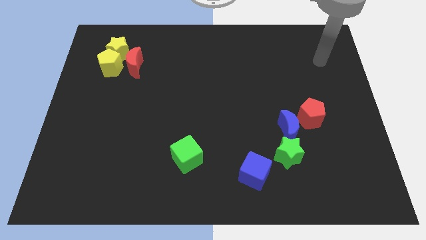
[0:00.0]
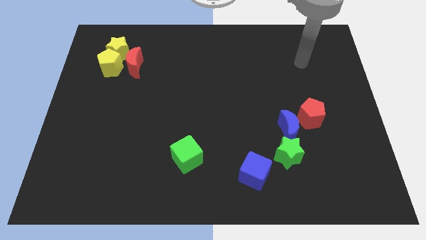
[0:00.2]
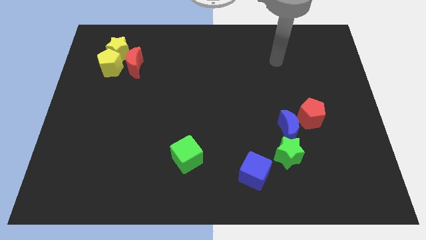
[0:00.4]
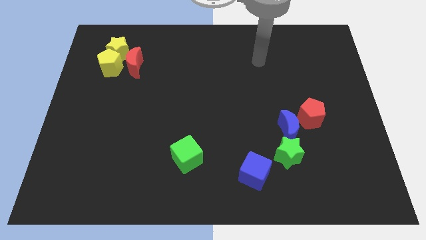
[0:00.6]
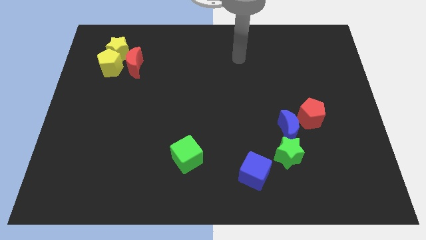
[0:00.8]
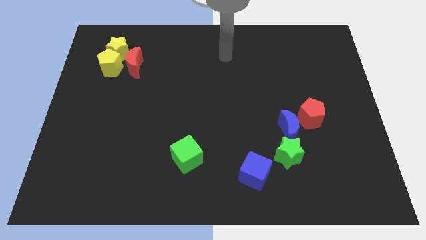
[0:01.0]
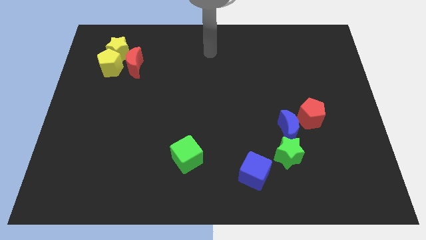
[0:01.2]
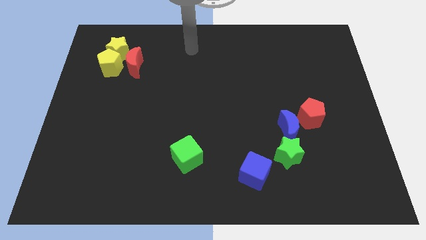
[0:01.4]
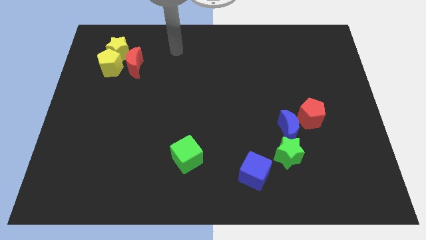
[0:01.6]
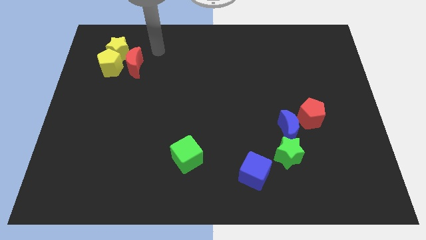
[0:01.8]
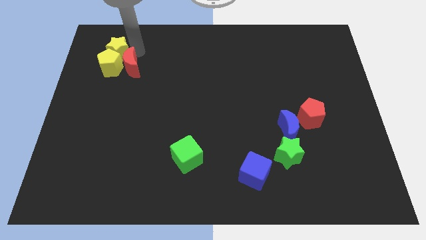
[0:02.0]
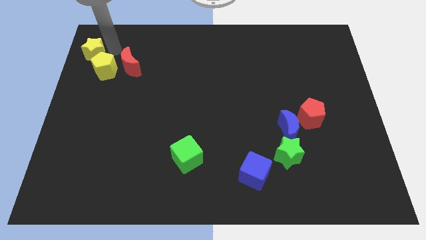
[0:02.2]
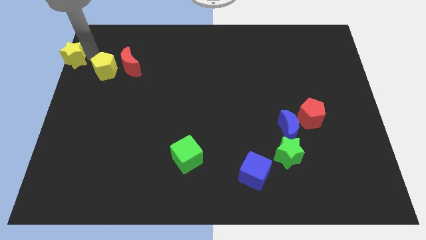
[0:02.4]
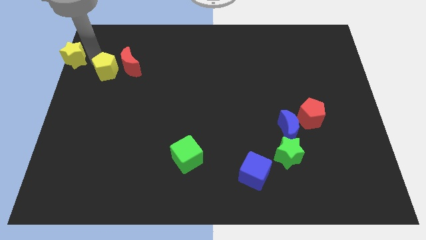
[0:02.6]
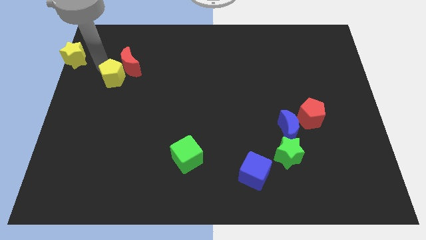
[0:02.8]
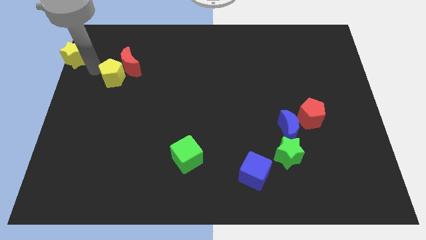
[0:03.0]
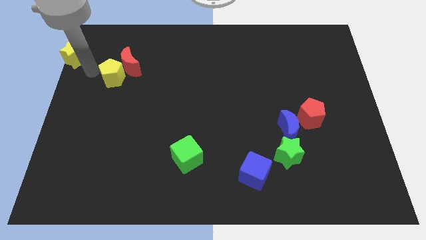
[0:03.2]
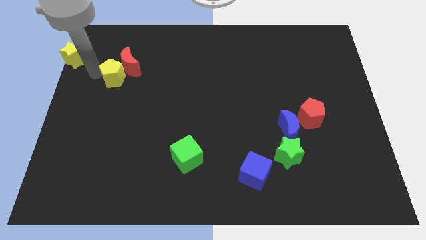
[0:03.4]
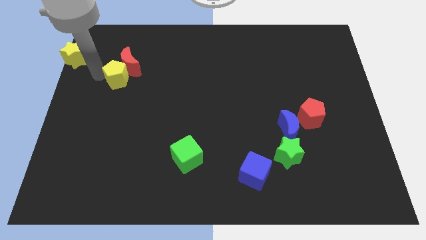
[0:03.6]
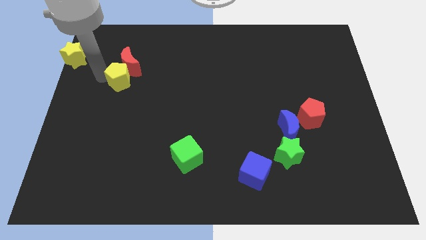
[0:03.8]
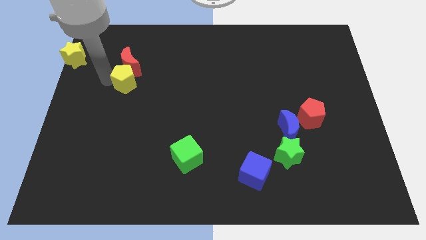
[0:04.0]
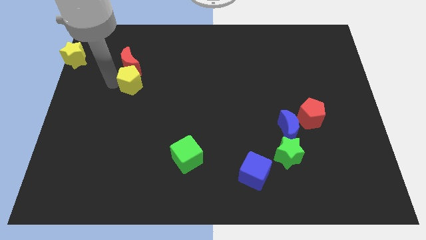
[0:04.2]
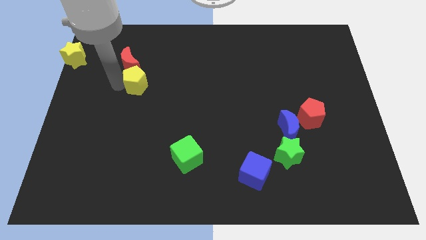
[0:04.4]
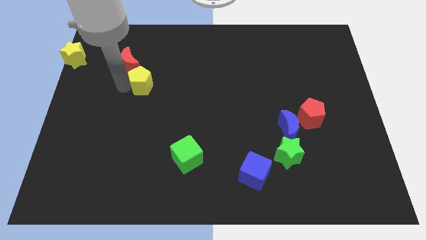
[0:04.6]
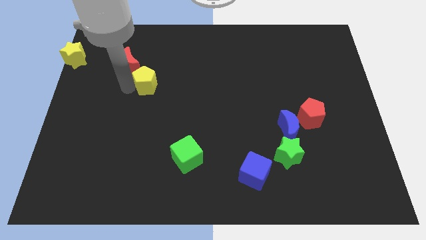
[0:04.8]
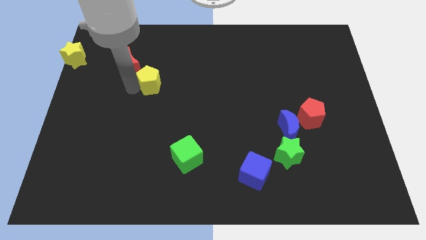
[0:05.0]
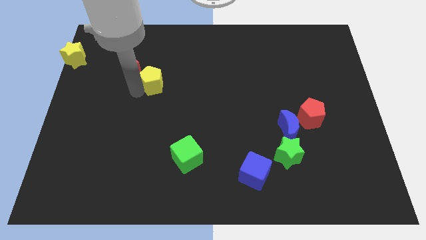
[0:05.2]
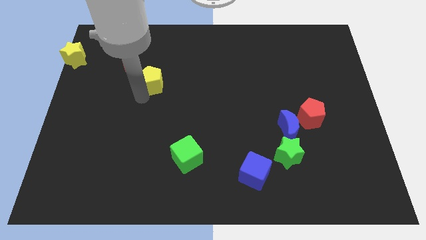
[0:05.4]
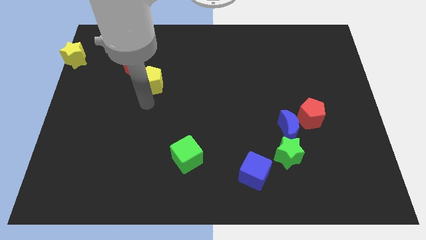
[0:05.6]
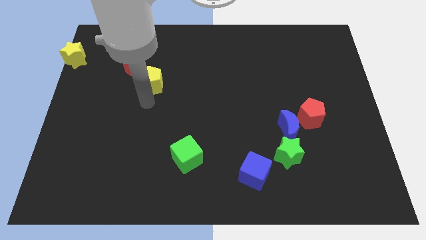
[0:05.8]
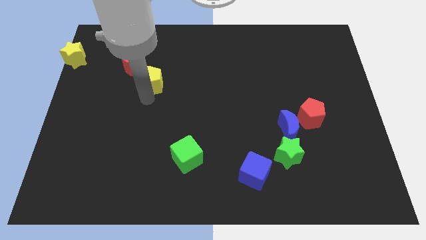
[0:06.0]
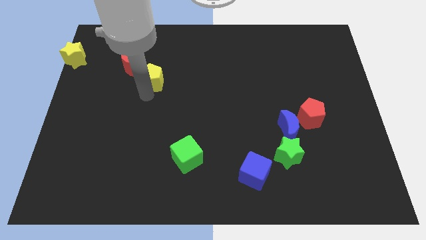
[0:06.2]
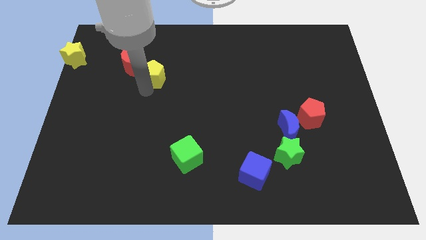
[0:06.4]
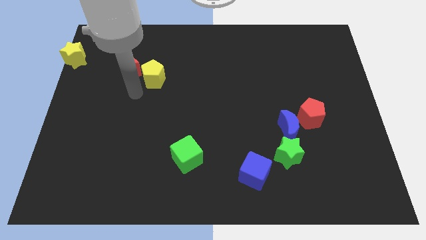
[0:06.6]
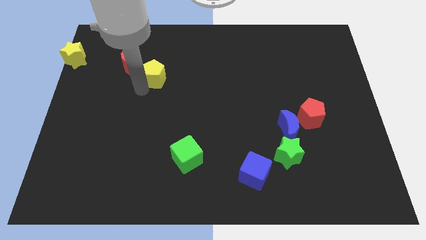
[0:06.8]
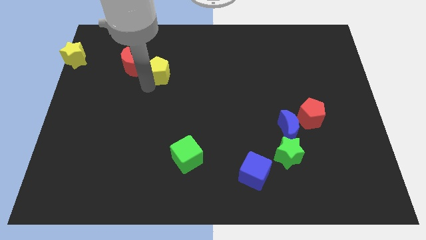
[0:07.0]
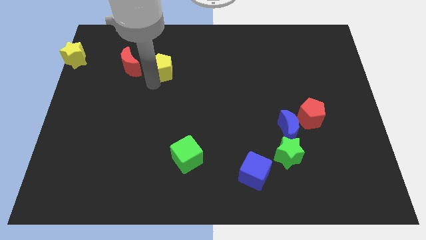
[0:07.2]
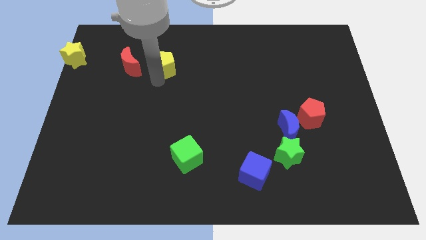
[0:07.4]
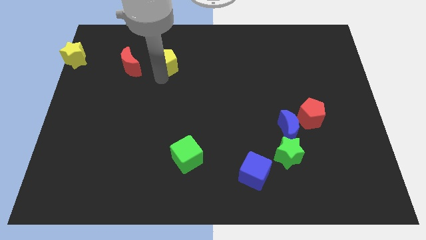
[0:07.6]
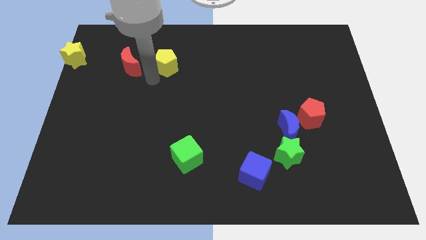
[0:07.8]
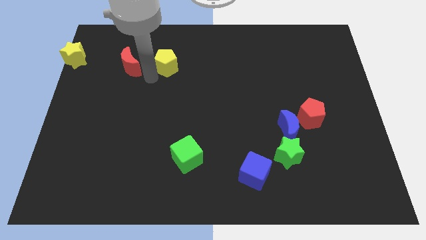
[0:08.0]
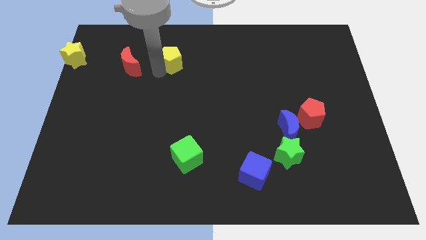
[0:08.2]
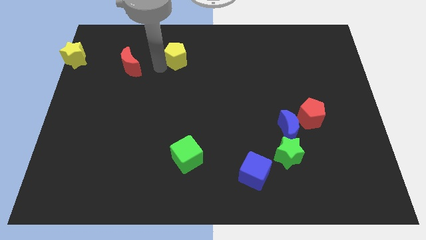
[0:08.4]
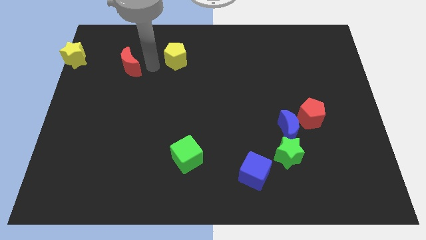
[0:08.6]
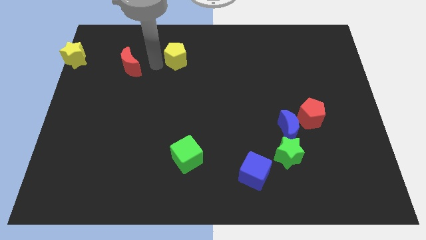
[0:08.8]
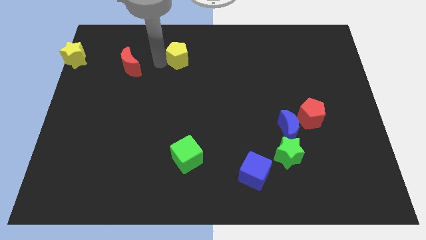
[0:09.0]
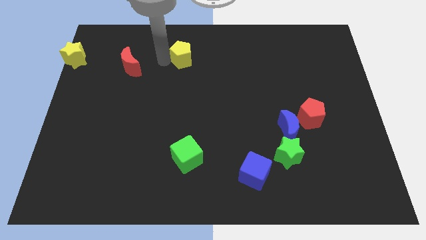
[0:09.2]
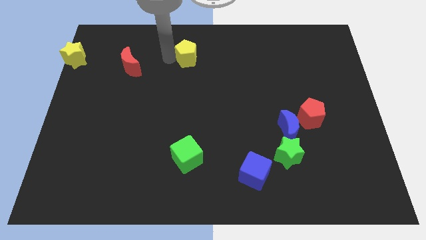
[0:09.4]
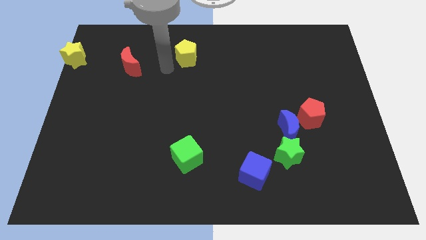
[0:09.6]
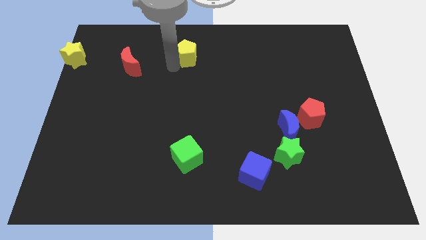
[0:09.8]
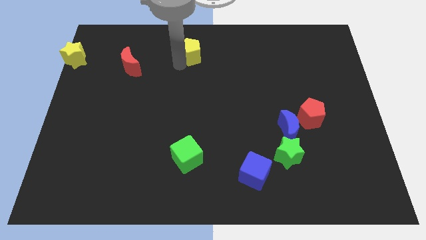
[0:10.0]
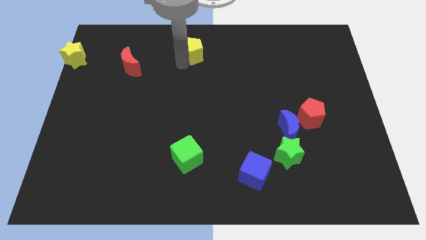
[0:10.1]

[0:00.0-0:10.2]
put the yellow pentagon to the top

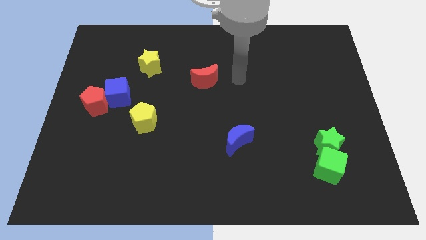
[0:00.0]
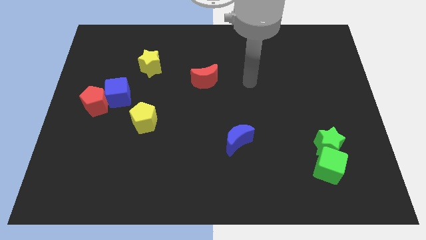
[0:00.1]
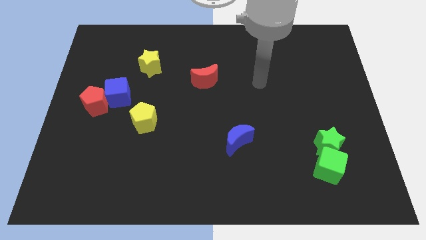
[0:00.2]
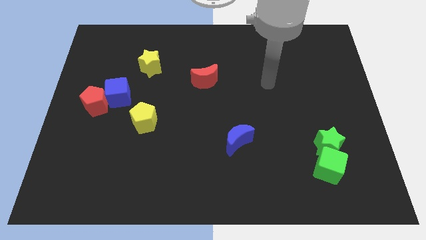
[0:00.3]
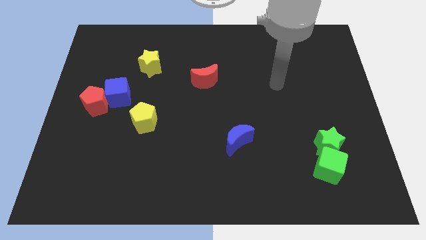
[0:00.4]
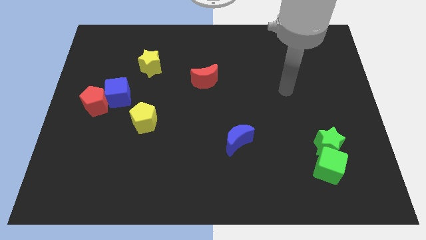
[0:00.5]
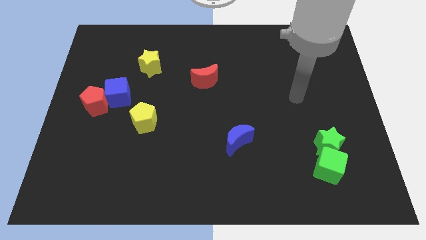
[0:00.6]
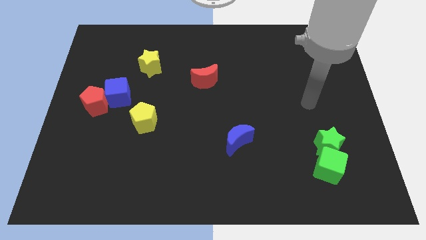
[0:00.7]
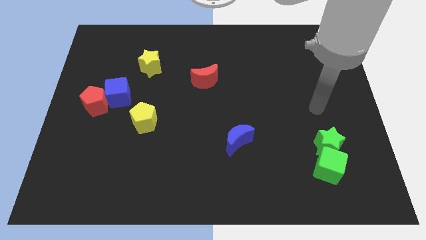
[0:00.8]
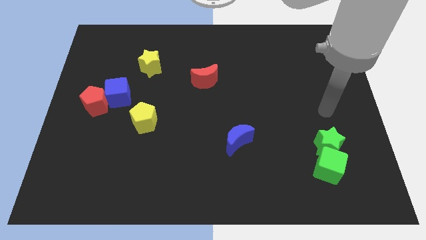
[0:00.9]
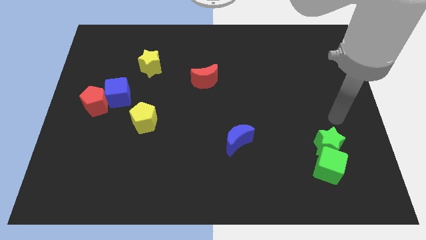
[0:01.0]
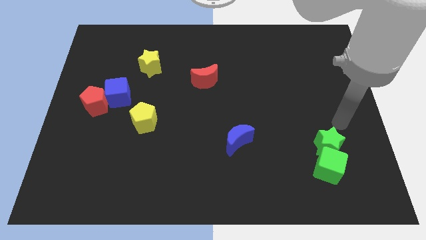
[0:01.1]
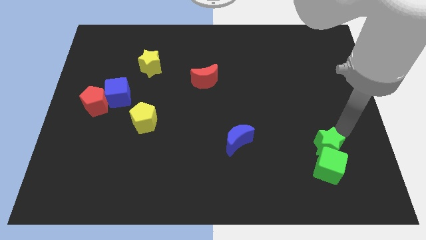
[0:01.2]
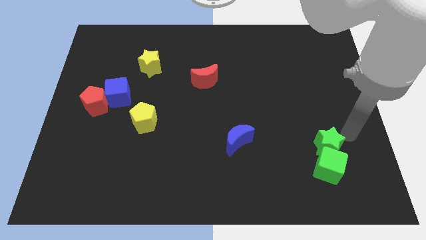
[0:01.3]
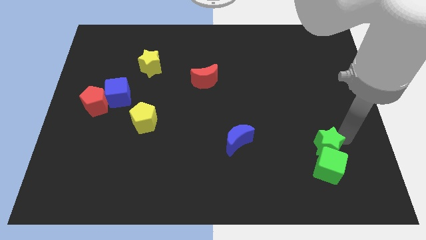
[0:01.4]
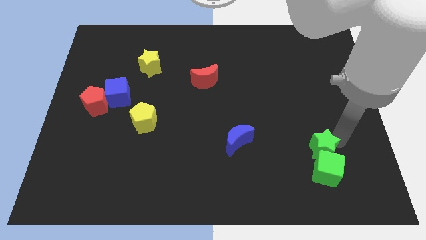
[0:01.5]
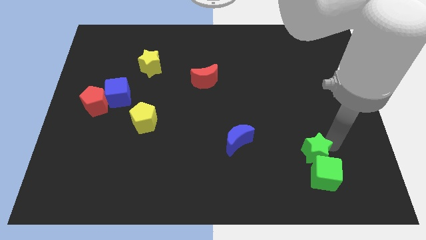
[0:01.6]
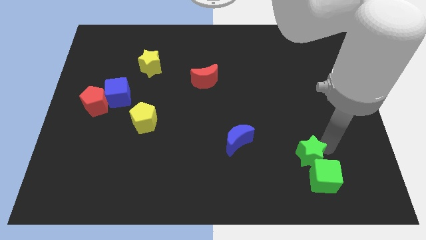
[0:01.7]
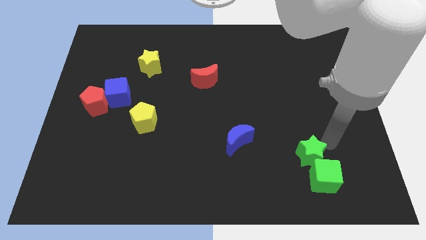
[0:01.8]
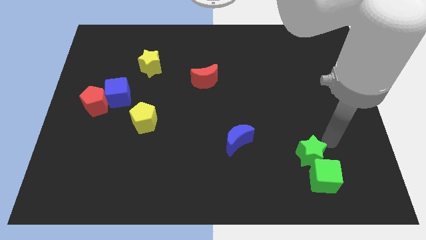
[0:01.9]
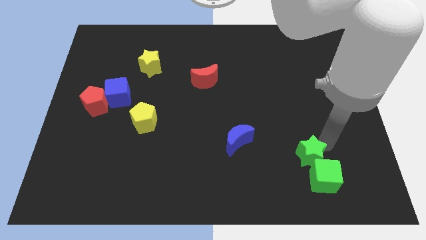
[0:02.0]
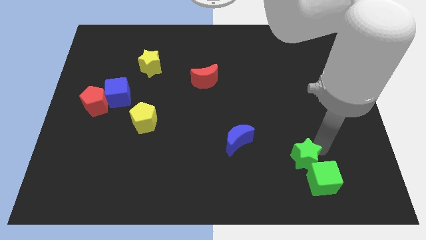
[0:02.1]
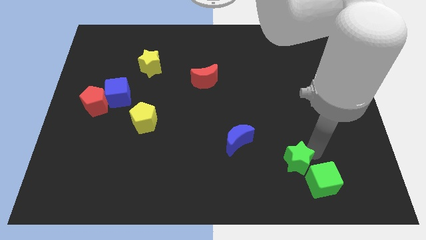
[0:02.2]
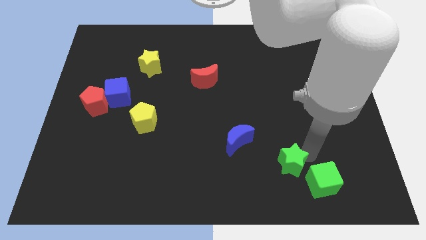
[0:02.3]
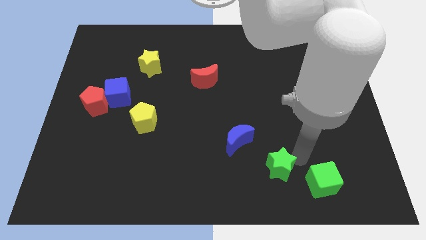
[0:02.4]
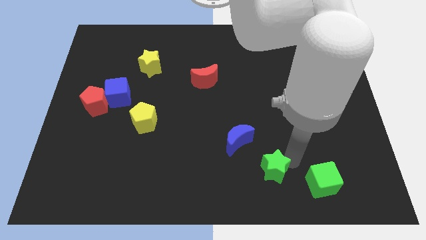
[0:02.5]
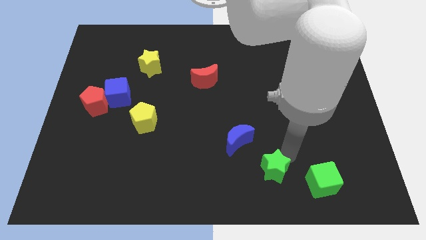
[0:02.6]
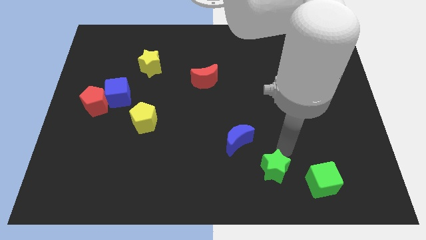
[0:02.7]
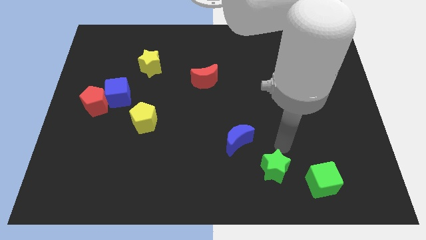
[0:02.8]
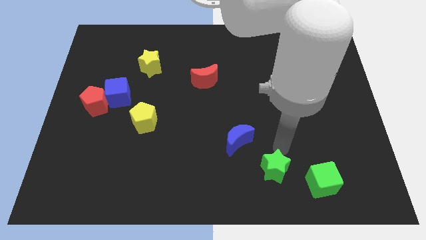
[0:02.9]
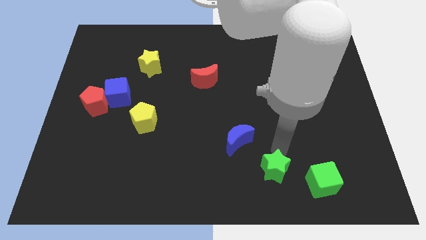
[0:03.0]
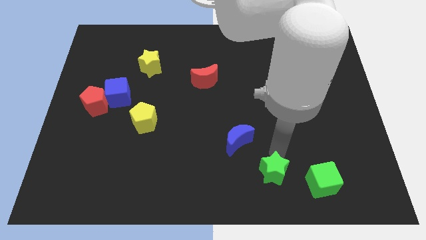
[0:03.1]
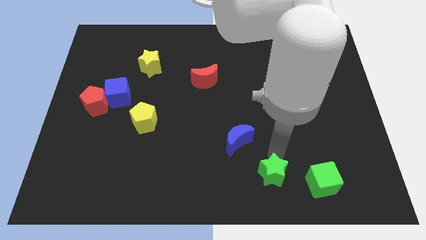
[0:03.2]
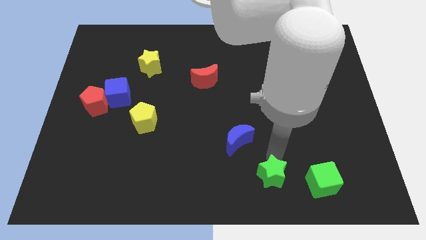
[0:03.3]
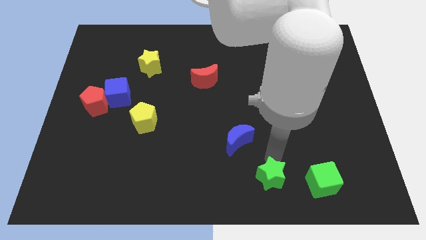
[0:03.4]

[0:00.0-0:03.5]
push the green star to the bottom side
